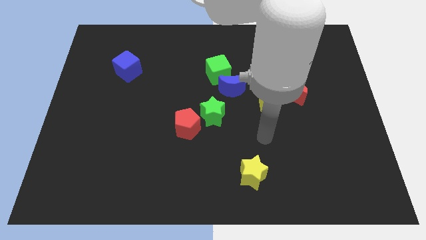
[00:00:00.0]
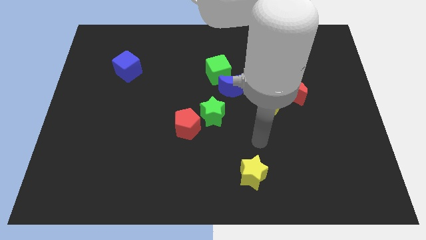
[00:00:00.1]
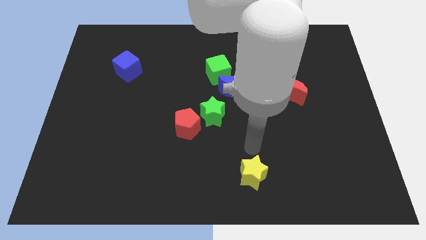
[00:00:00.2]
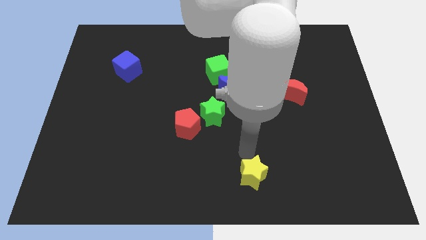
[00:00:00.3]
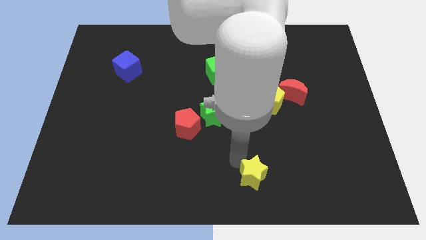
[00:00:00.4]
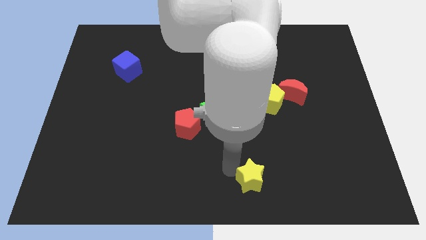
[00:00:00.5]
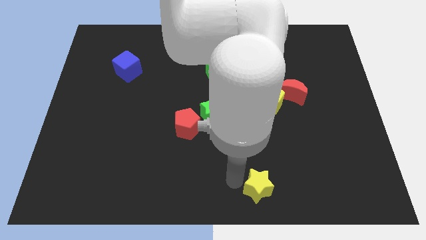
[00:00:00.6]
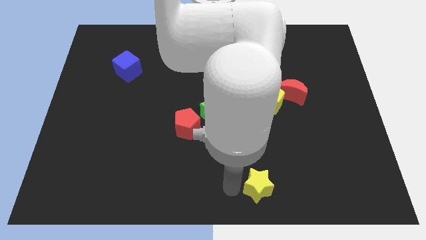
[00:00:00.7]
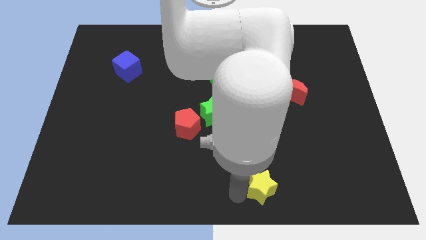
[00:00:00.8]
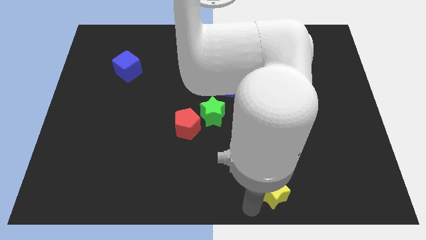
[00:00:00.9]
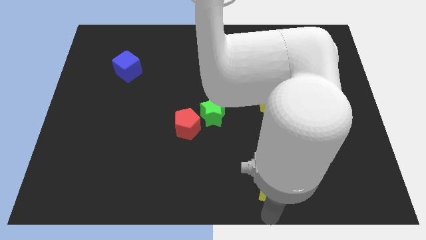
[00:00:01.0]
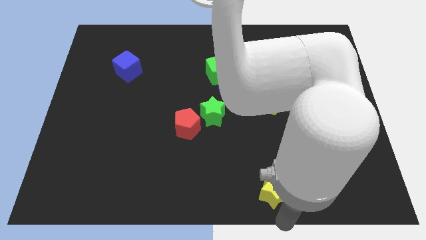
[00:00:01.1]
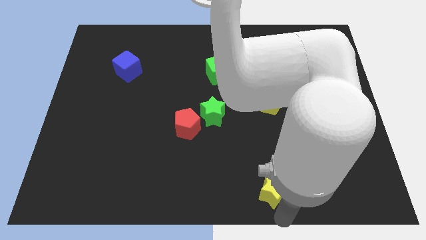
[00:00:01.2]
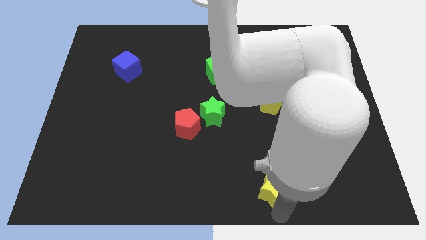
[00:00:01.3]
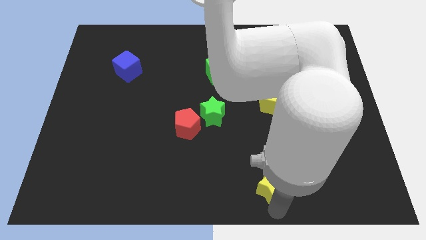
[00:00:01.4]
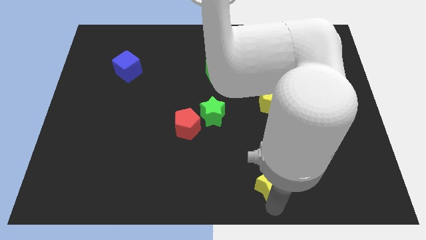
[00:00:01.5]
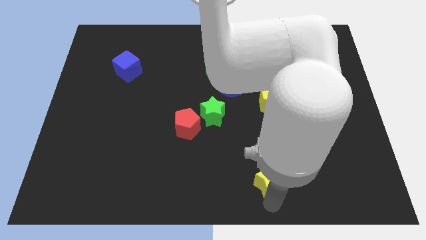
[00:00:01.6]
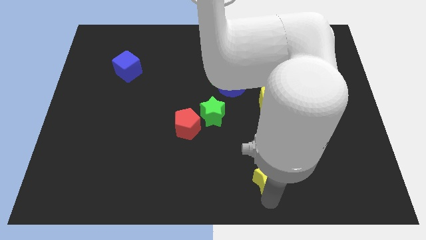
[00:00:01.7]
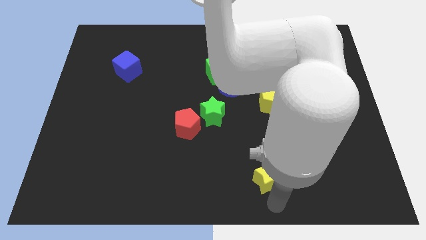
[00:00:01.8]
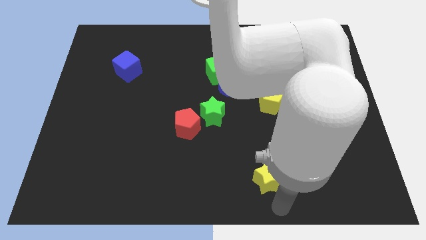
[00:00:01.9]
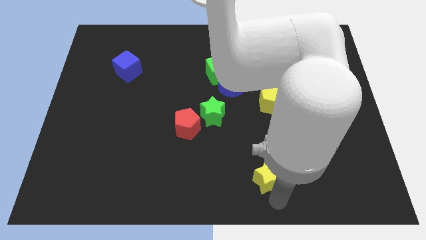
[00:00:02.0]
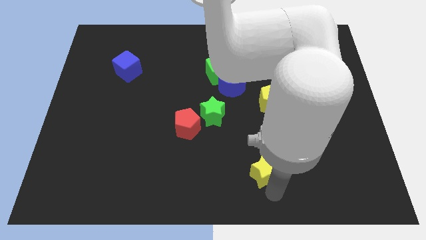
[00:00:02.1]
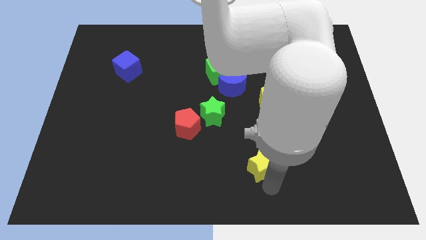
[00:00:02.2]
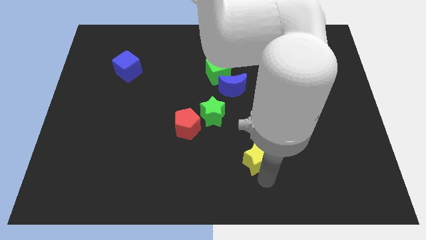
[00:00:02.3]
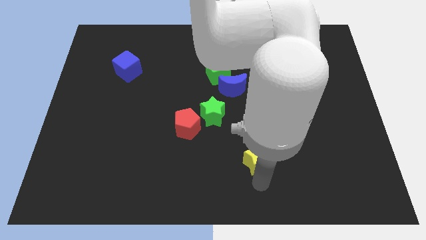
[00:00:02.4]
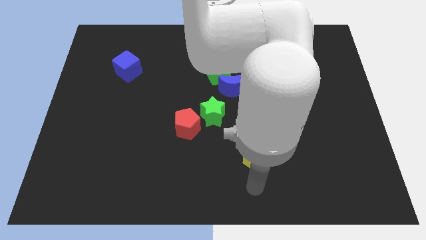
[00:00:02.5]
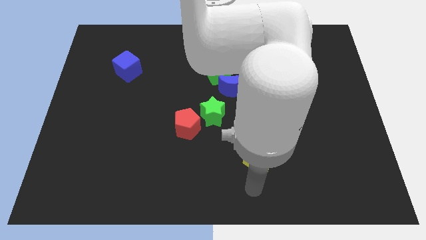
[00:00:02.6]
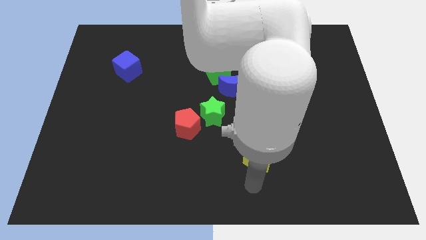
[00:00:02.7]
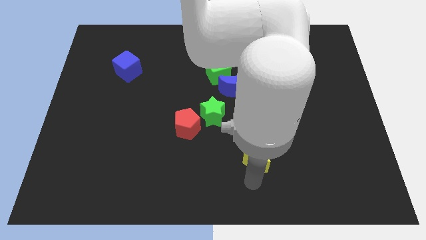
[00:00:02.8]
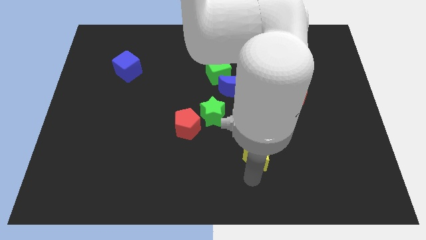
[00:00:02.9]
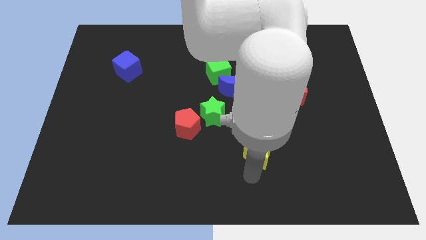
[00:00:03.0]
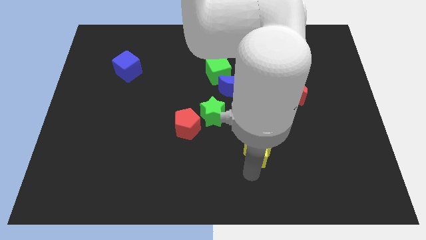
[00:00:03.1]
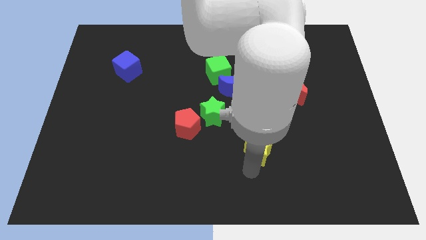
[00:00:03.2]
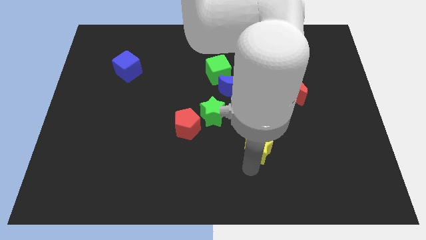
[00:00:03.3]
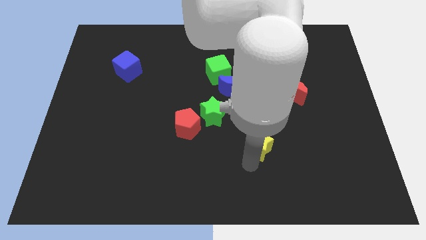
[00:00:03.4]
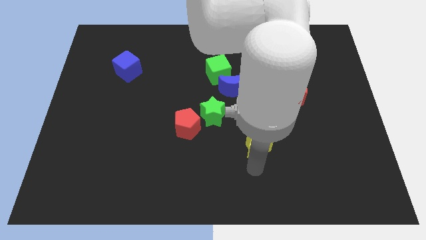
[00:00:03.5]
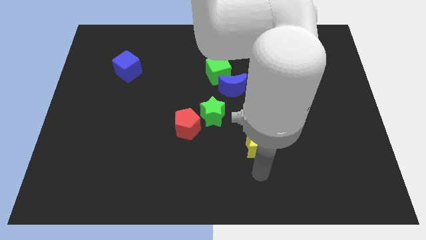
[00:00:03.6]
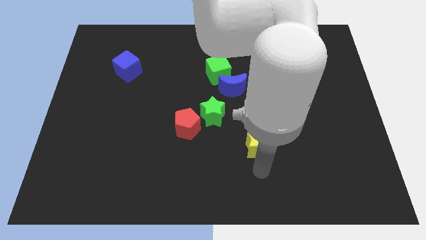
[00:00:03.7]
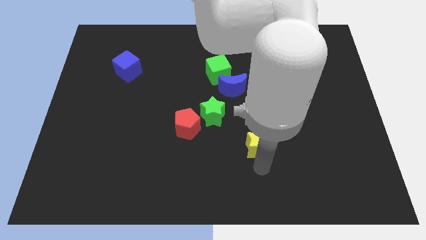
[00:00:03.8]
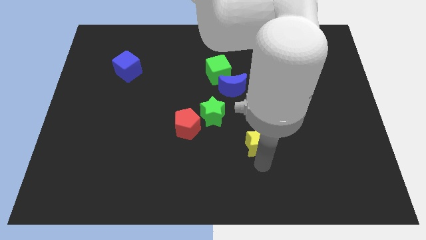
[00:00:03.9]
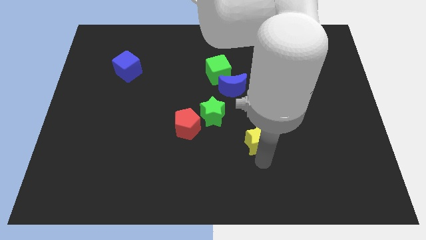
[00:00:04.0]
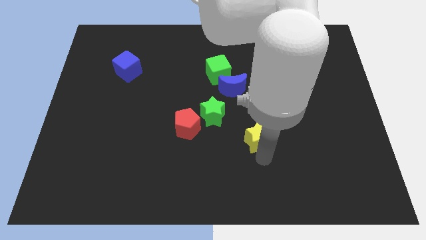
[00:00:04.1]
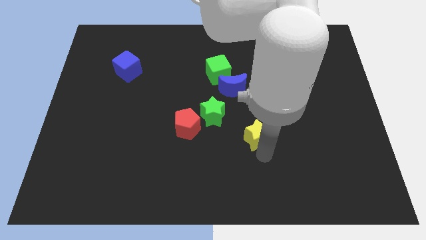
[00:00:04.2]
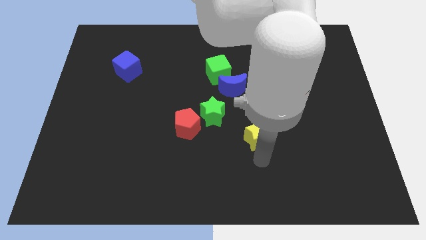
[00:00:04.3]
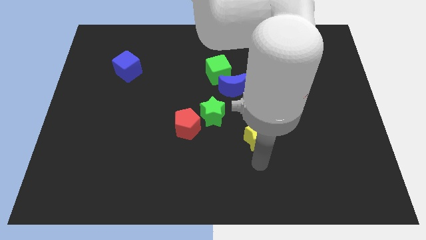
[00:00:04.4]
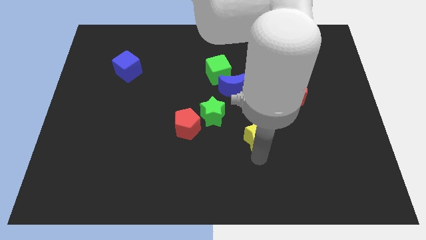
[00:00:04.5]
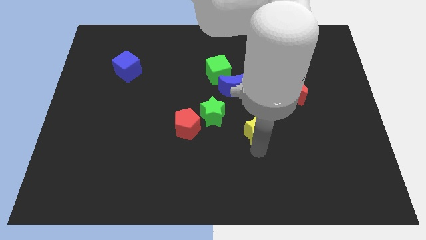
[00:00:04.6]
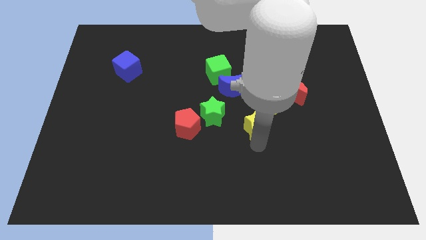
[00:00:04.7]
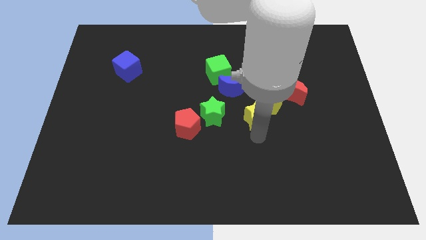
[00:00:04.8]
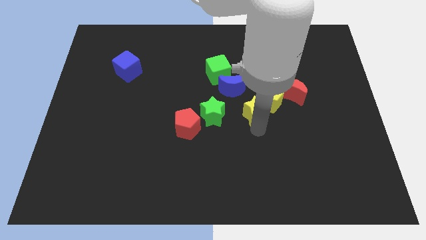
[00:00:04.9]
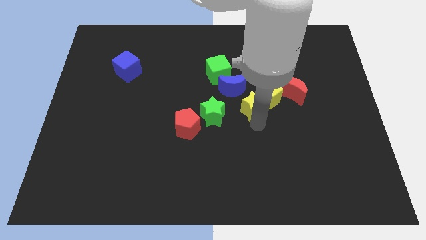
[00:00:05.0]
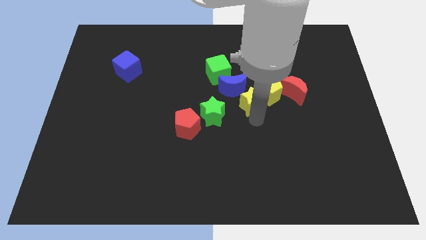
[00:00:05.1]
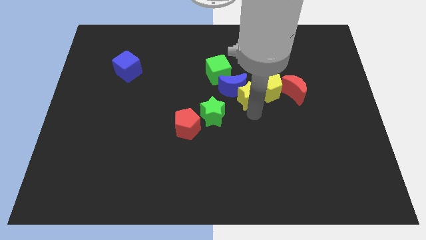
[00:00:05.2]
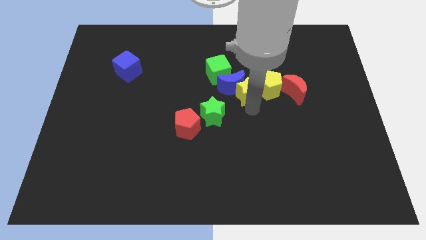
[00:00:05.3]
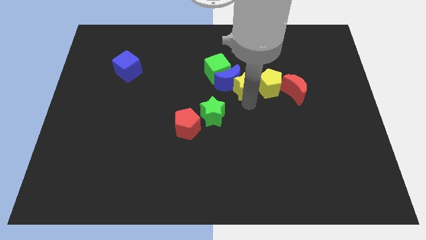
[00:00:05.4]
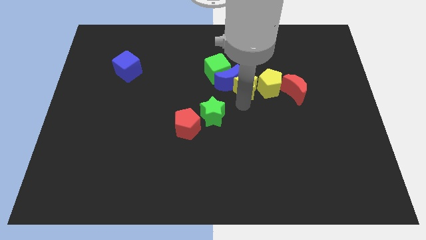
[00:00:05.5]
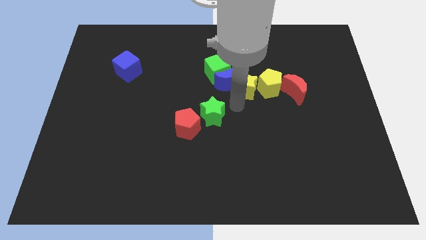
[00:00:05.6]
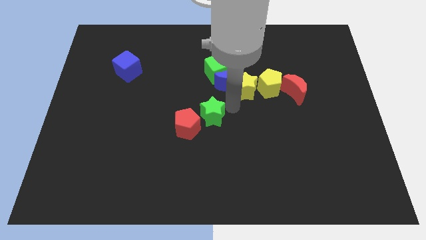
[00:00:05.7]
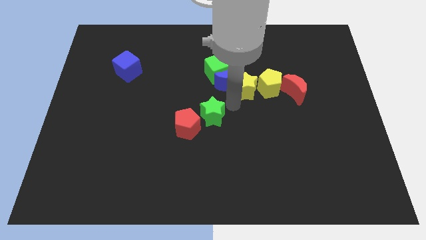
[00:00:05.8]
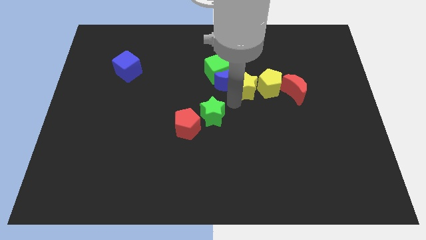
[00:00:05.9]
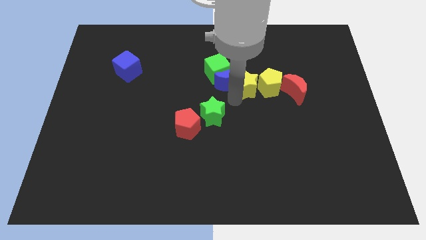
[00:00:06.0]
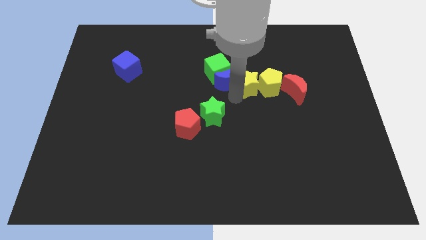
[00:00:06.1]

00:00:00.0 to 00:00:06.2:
slide the yellow star to the right side of the green cube

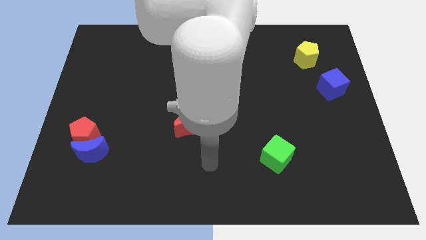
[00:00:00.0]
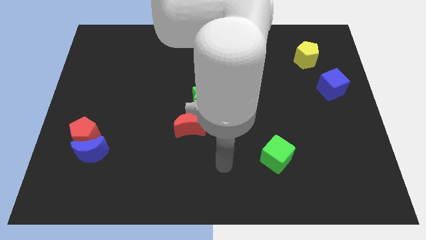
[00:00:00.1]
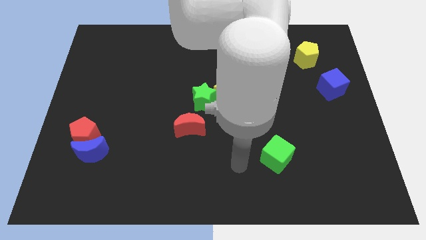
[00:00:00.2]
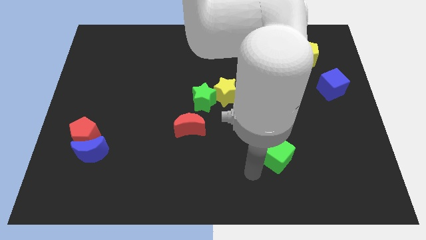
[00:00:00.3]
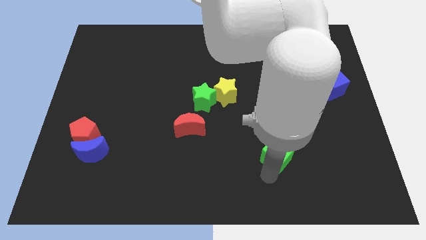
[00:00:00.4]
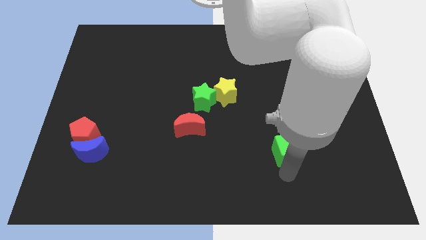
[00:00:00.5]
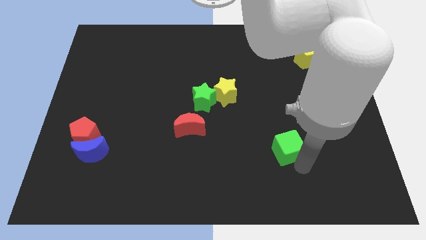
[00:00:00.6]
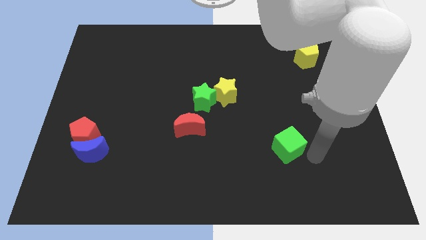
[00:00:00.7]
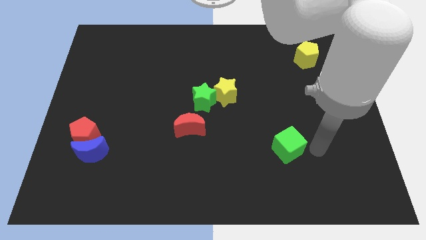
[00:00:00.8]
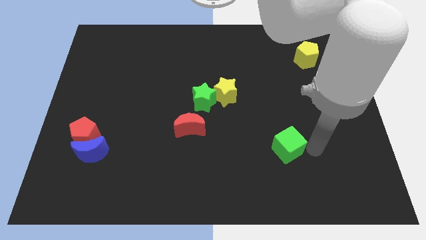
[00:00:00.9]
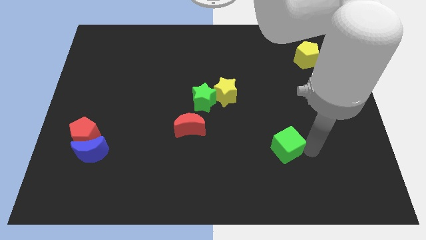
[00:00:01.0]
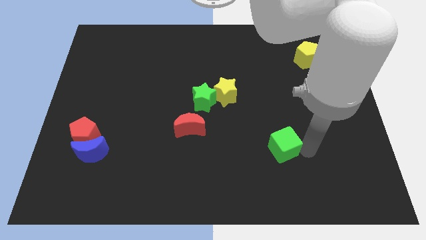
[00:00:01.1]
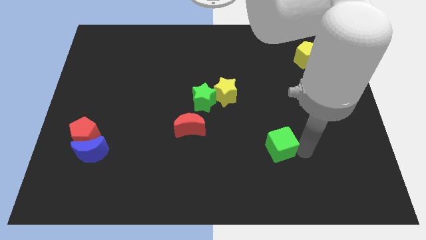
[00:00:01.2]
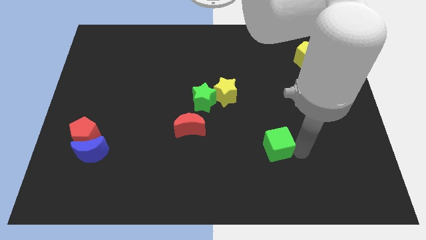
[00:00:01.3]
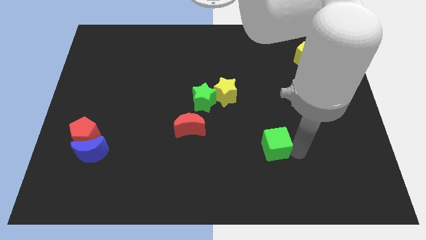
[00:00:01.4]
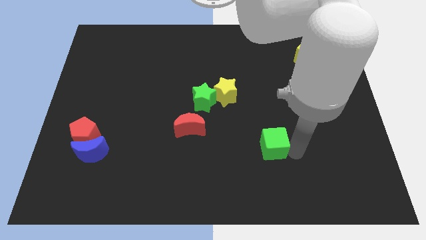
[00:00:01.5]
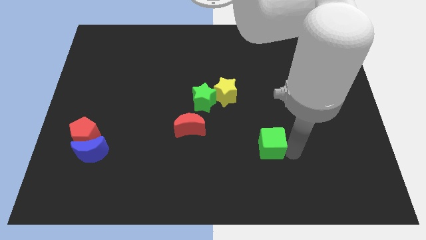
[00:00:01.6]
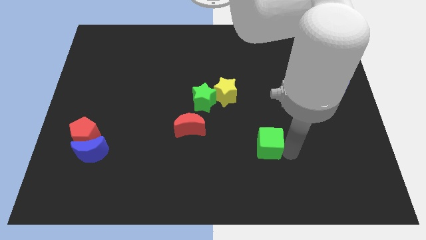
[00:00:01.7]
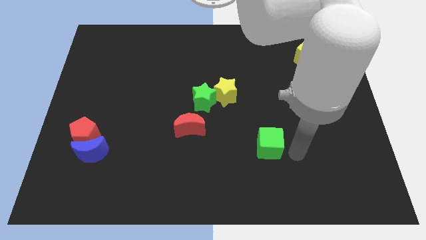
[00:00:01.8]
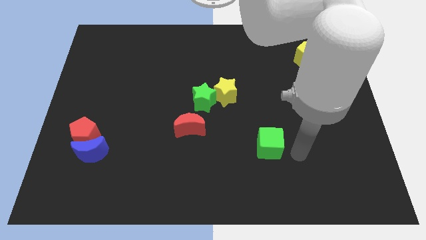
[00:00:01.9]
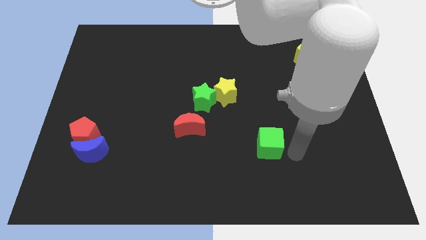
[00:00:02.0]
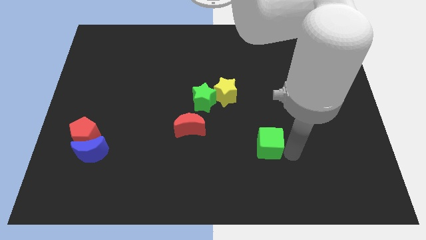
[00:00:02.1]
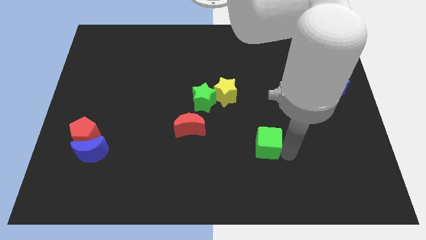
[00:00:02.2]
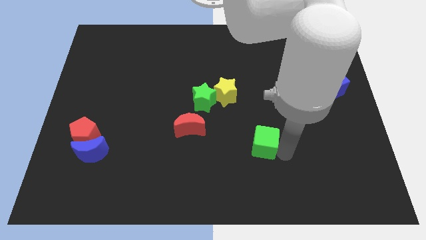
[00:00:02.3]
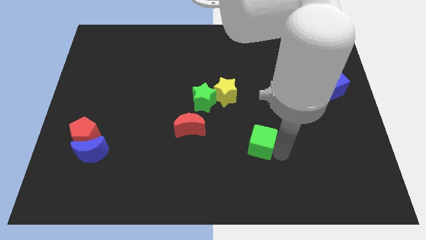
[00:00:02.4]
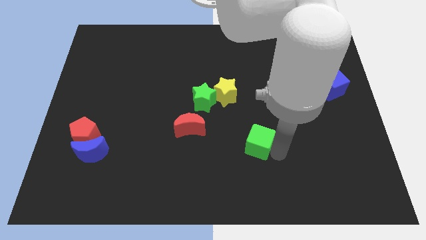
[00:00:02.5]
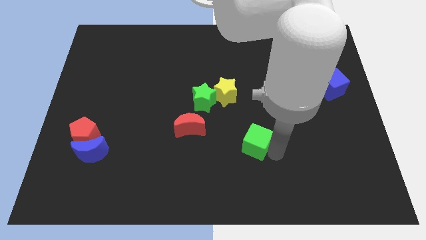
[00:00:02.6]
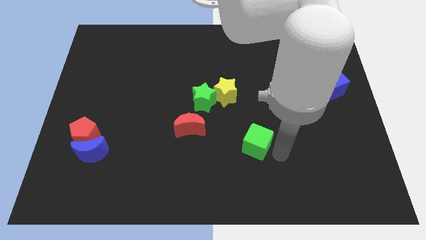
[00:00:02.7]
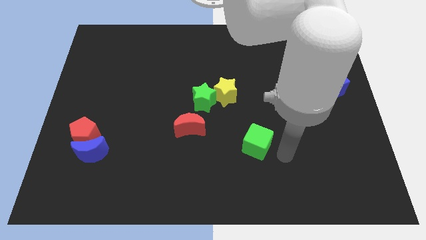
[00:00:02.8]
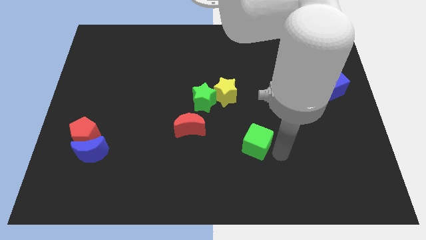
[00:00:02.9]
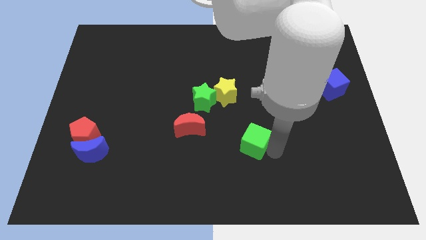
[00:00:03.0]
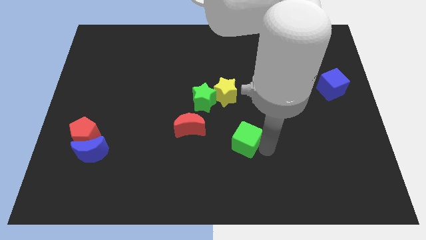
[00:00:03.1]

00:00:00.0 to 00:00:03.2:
push the green cube to the bottom side of the yellow star
